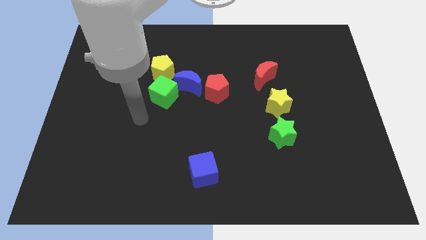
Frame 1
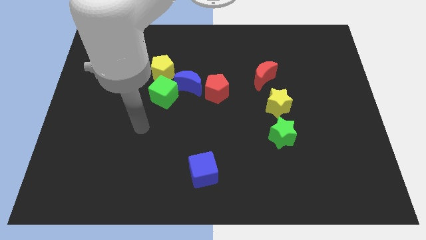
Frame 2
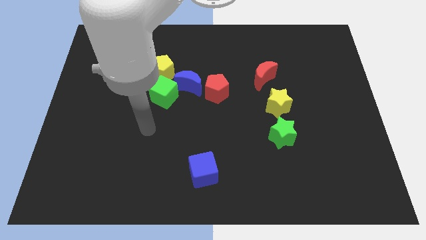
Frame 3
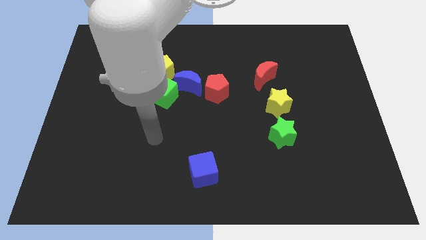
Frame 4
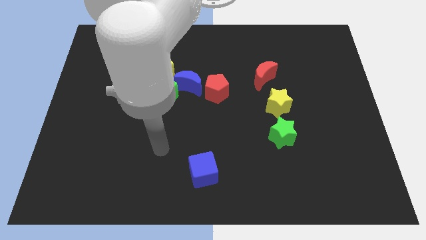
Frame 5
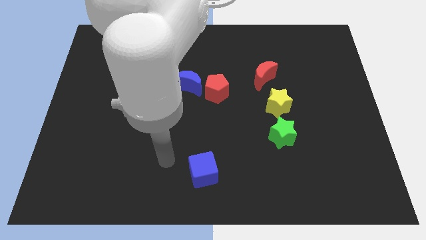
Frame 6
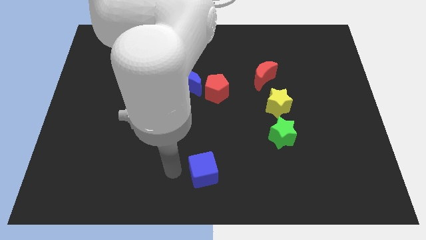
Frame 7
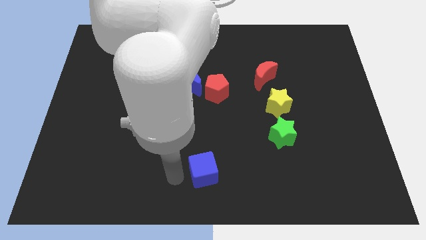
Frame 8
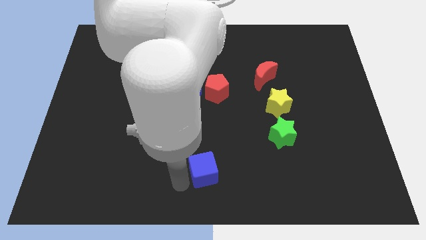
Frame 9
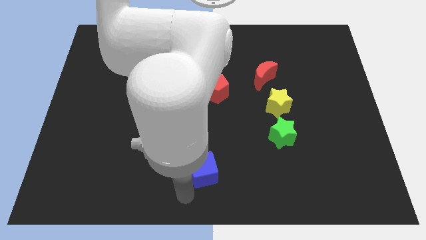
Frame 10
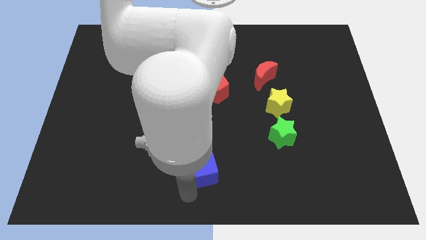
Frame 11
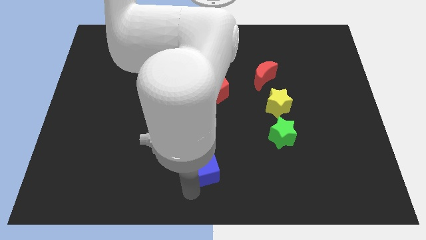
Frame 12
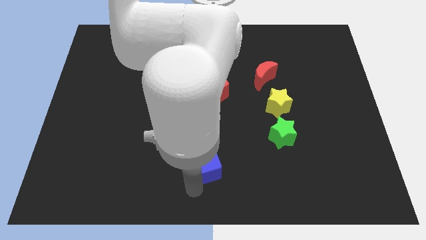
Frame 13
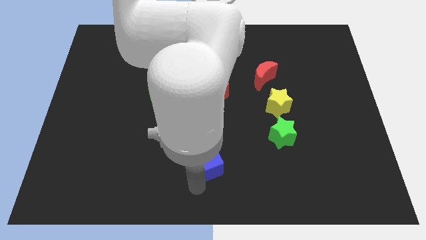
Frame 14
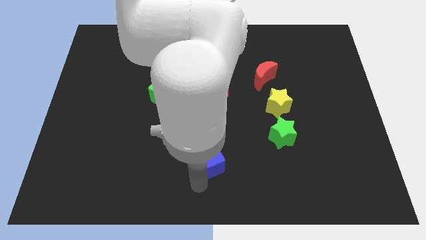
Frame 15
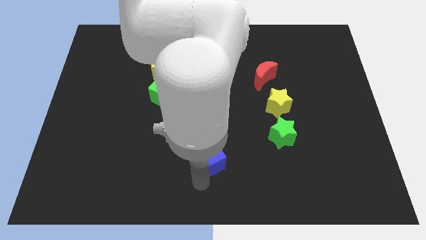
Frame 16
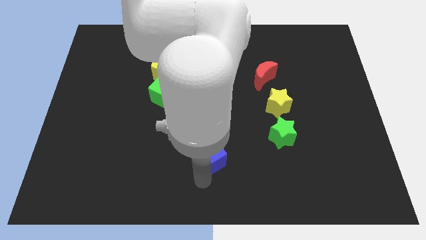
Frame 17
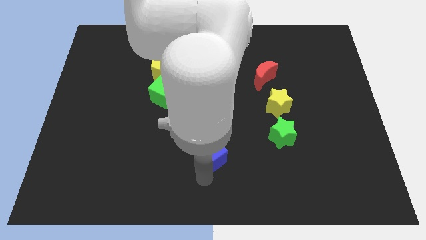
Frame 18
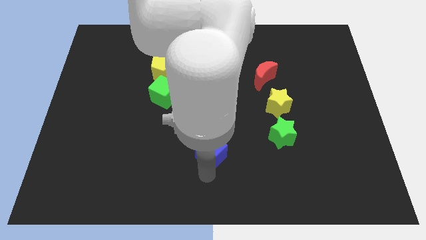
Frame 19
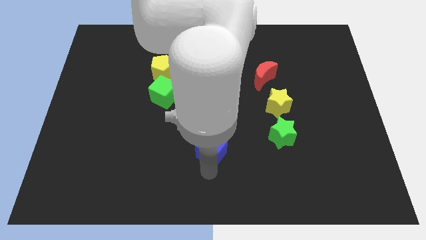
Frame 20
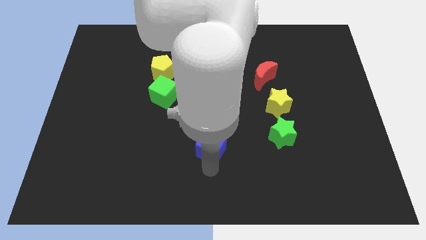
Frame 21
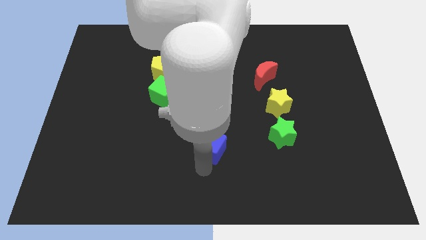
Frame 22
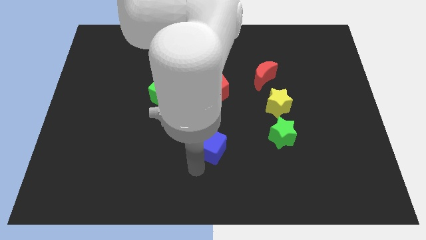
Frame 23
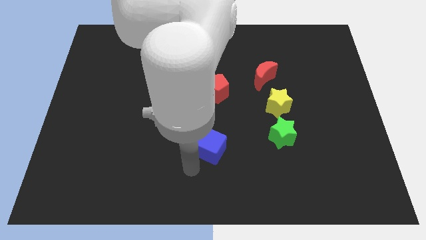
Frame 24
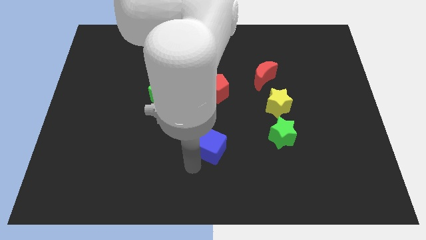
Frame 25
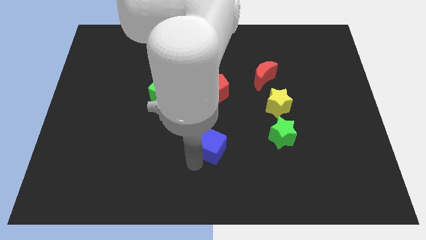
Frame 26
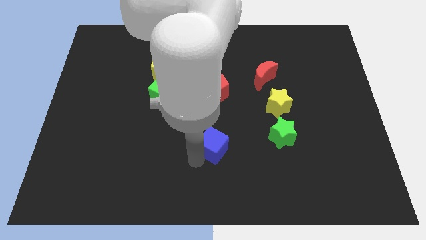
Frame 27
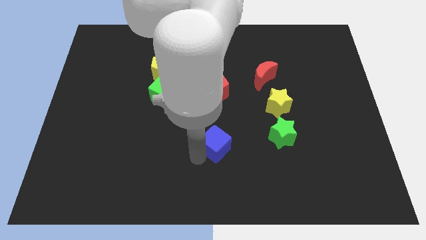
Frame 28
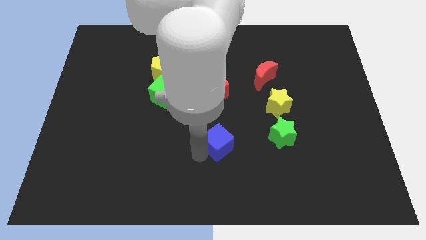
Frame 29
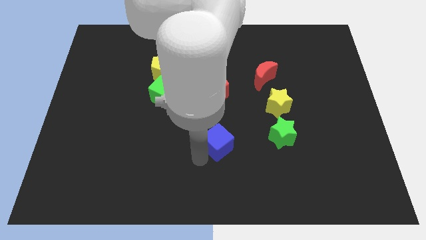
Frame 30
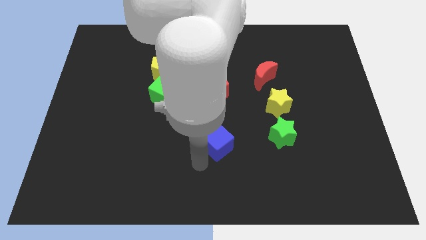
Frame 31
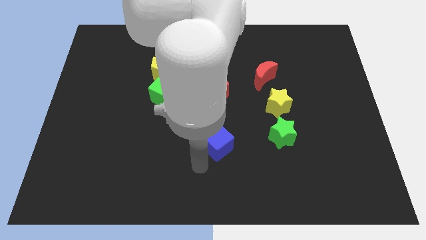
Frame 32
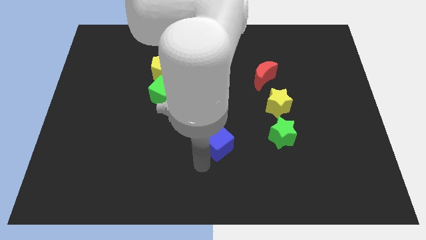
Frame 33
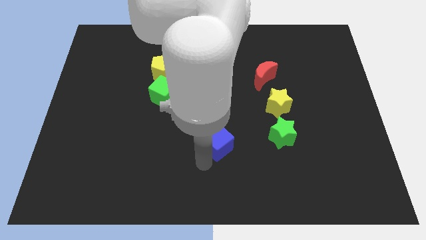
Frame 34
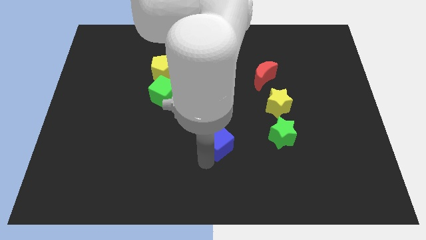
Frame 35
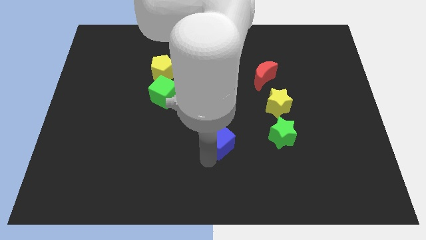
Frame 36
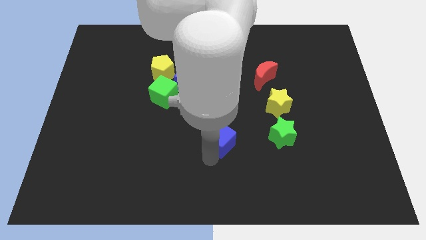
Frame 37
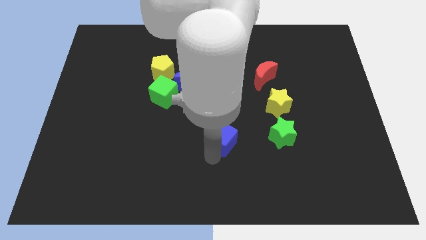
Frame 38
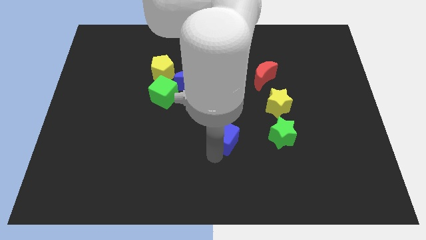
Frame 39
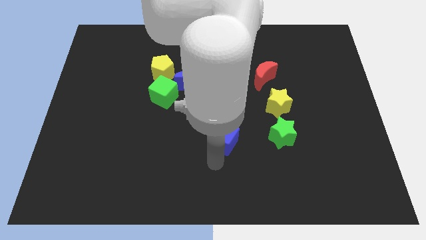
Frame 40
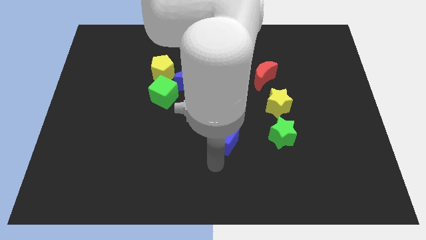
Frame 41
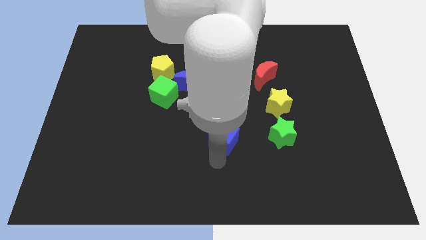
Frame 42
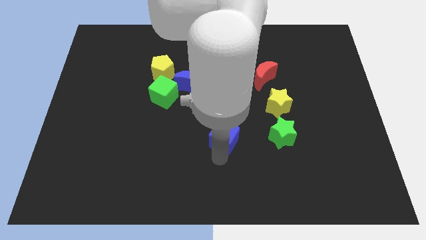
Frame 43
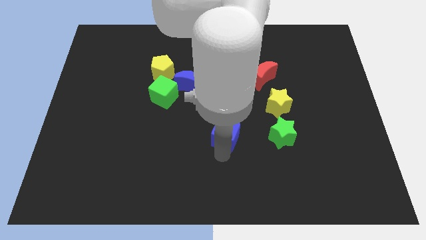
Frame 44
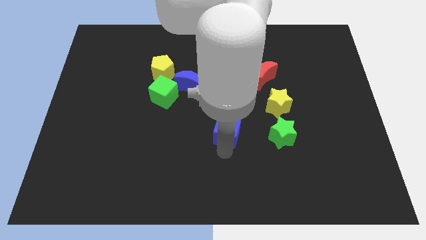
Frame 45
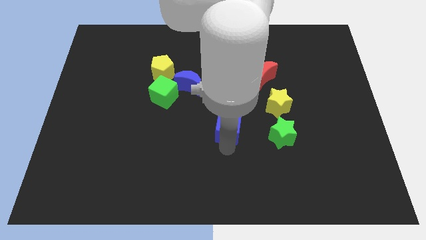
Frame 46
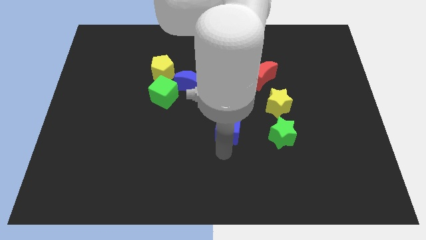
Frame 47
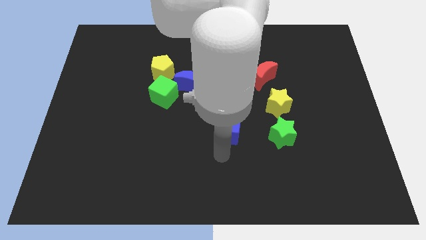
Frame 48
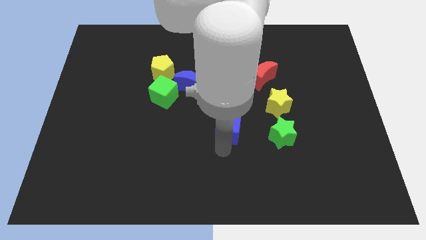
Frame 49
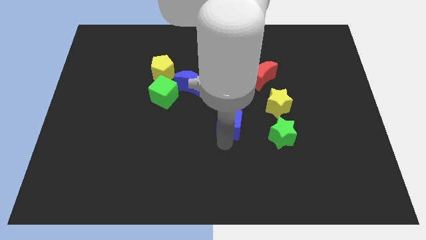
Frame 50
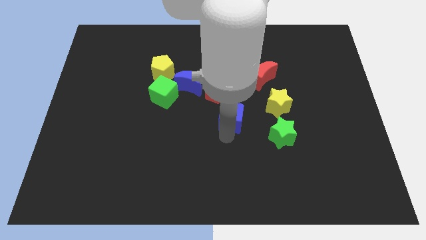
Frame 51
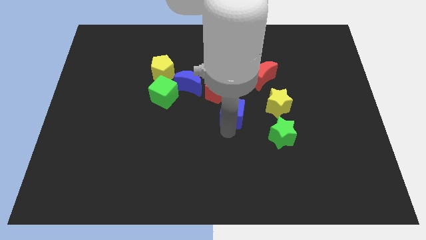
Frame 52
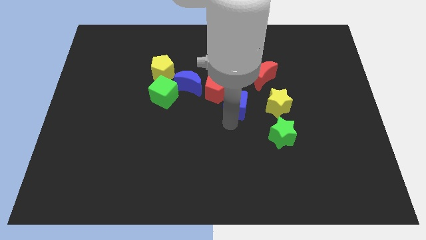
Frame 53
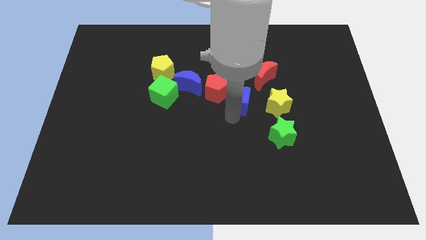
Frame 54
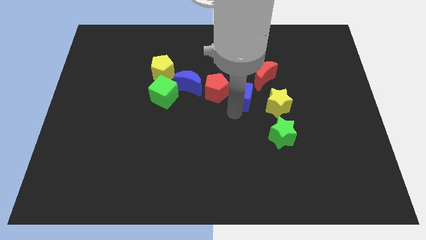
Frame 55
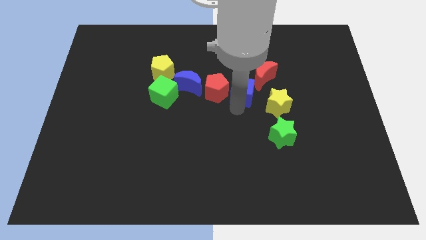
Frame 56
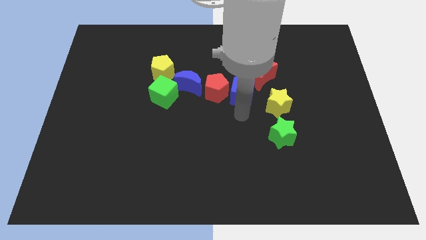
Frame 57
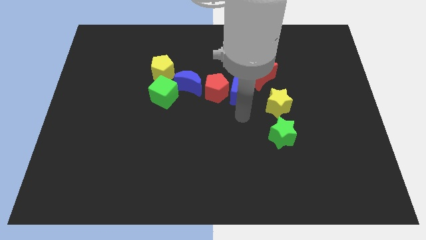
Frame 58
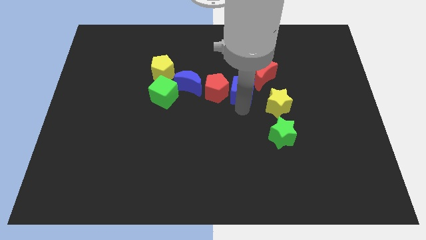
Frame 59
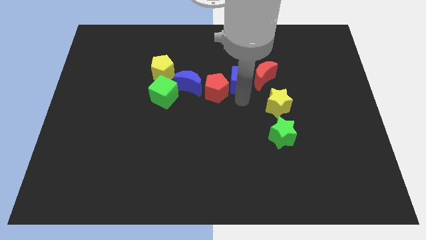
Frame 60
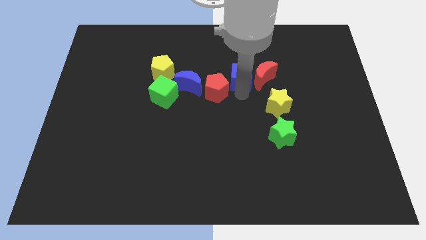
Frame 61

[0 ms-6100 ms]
push the blue cube diagonally up and to the left of the red moon

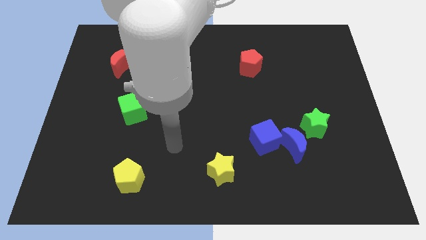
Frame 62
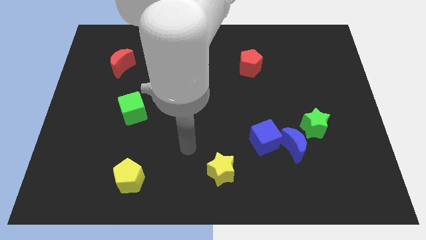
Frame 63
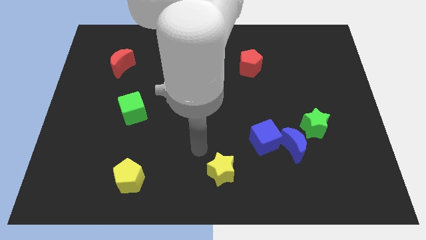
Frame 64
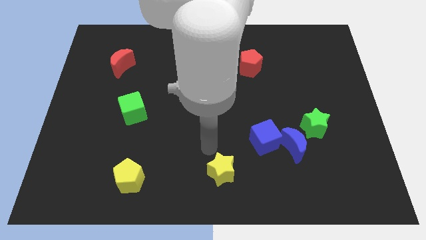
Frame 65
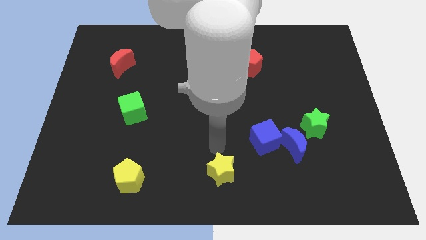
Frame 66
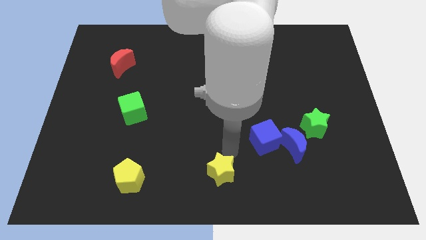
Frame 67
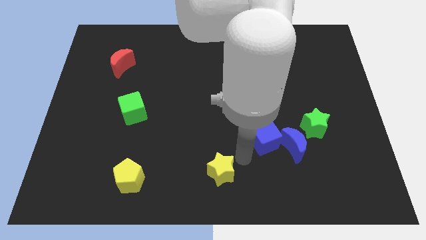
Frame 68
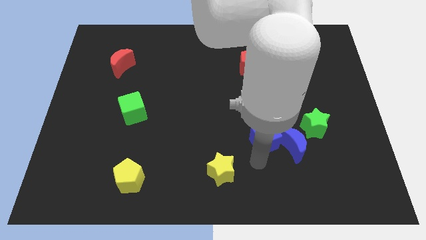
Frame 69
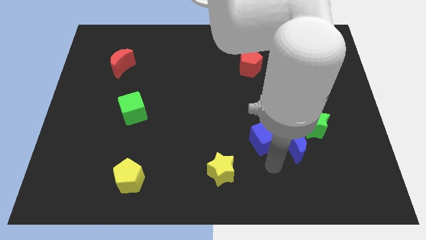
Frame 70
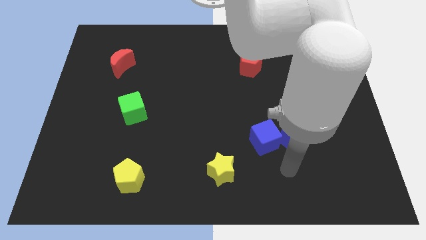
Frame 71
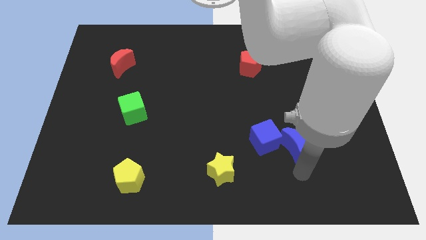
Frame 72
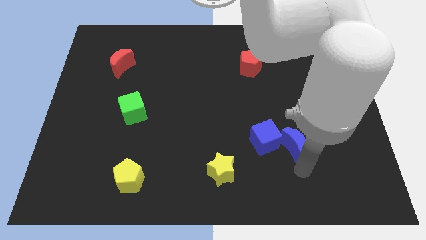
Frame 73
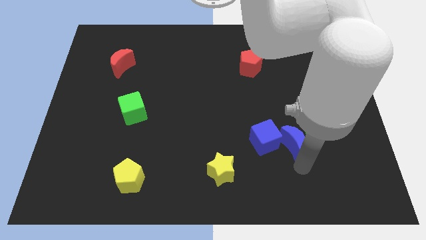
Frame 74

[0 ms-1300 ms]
put the blue moon diagonally up and to the right of the blue cube
